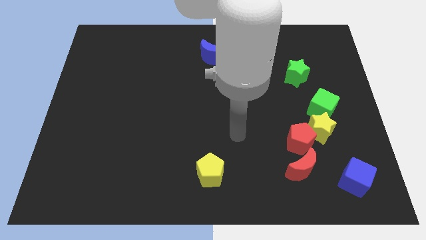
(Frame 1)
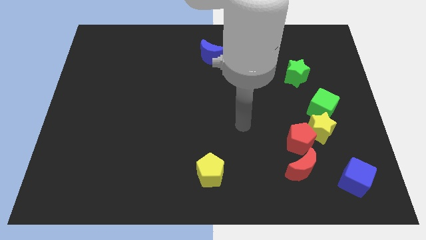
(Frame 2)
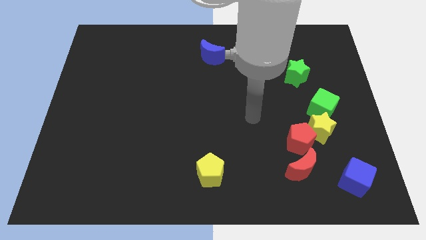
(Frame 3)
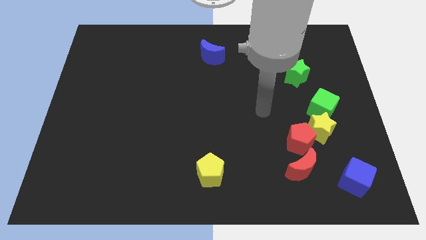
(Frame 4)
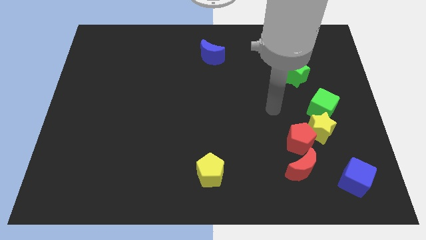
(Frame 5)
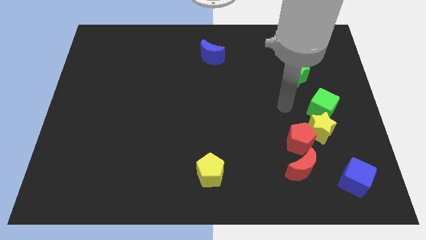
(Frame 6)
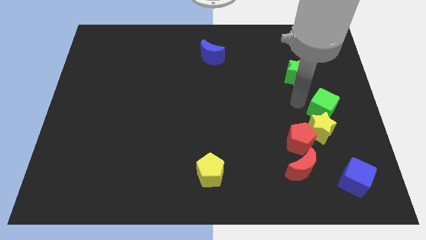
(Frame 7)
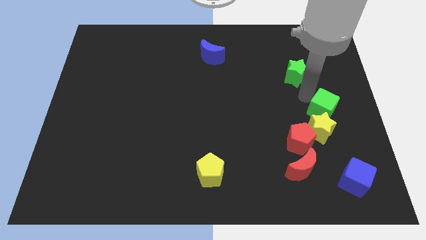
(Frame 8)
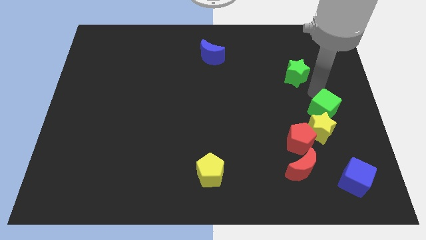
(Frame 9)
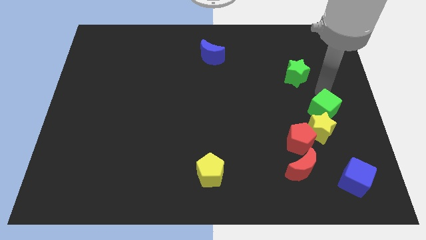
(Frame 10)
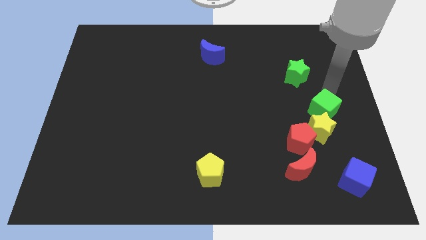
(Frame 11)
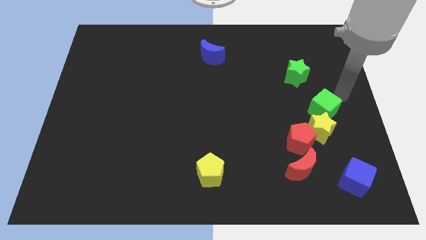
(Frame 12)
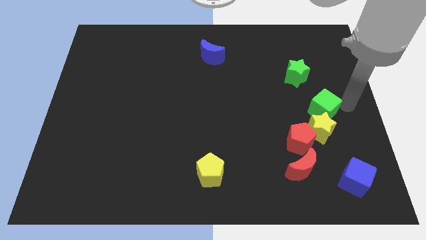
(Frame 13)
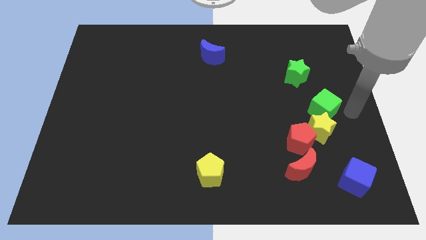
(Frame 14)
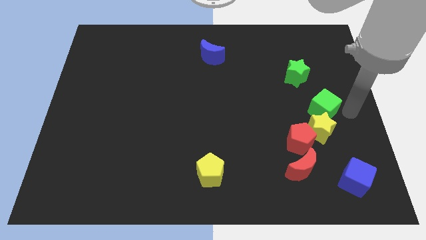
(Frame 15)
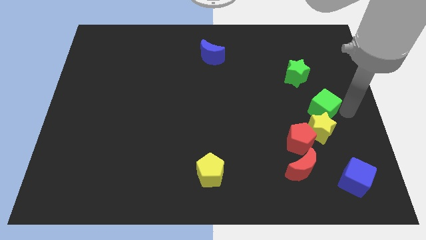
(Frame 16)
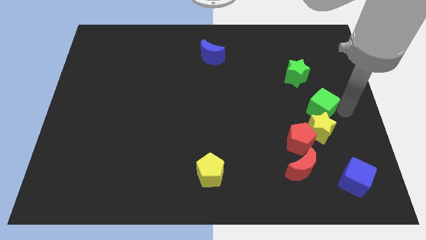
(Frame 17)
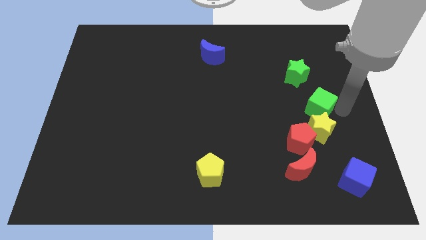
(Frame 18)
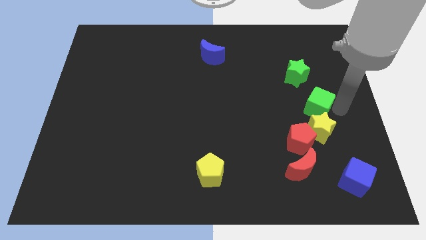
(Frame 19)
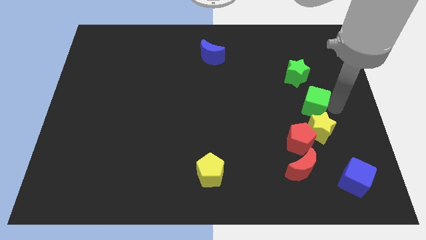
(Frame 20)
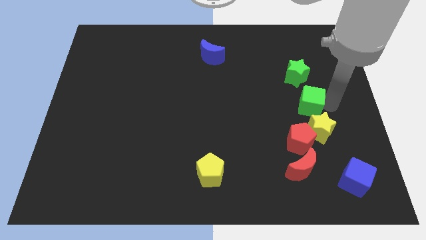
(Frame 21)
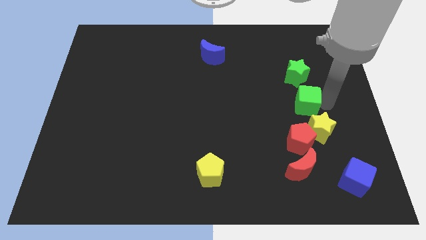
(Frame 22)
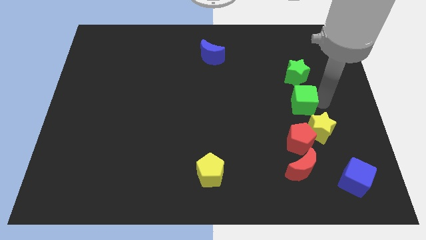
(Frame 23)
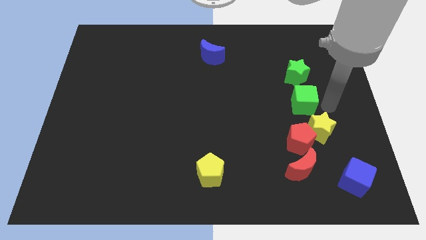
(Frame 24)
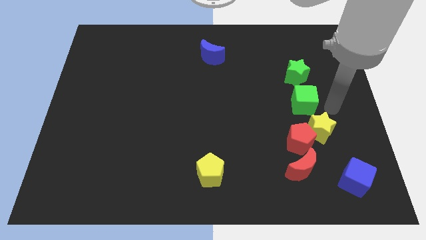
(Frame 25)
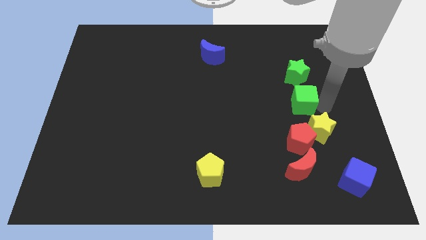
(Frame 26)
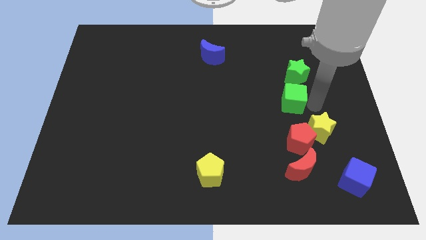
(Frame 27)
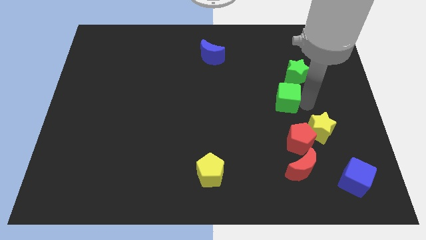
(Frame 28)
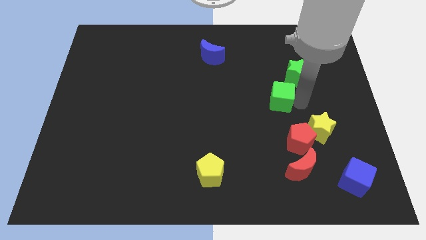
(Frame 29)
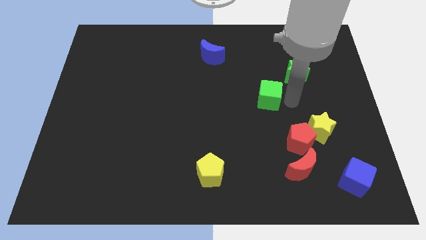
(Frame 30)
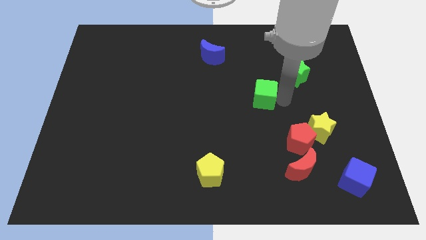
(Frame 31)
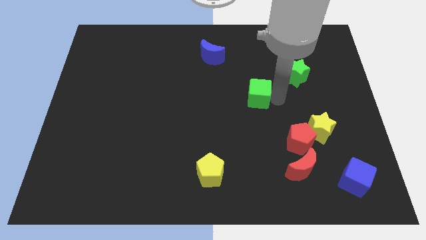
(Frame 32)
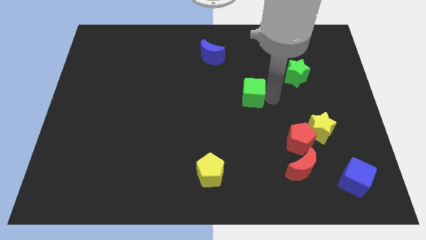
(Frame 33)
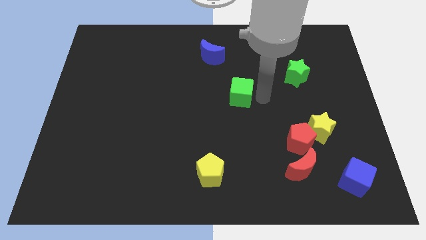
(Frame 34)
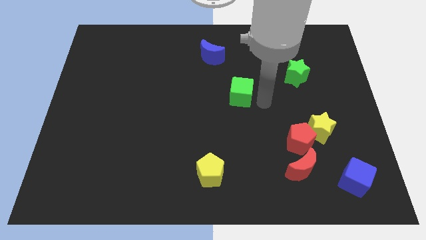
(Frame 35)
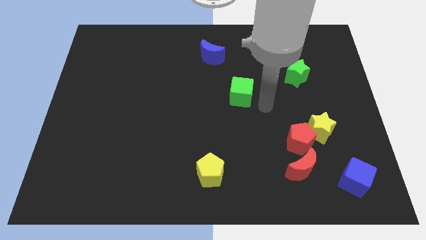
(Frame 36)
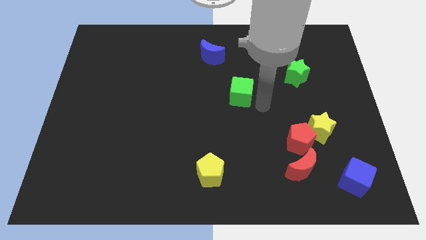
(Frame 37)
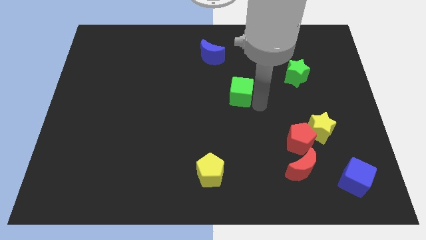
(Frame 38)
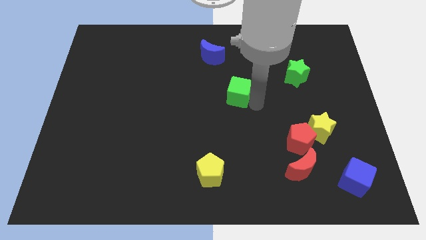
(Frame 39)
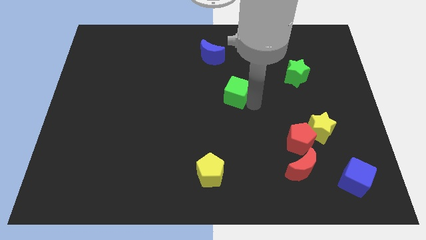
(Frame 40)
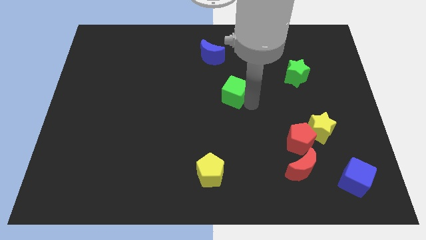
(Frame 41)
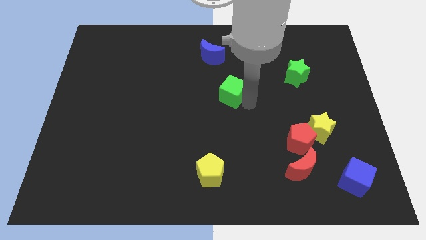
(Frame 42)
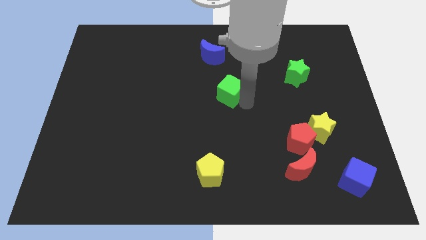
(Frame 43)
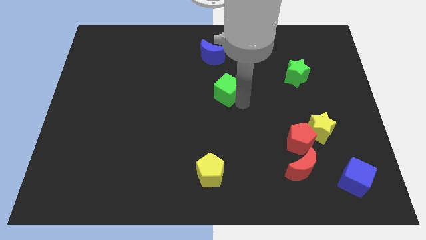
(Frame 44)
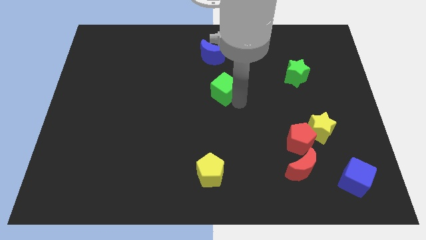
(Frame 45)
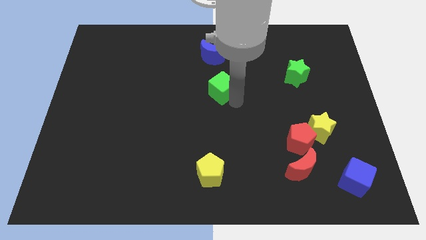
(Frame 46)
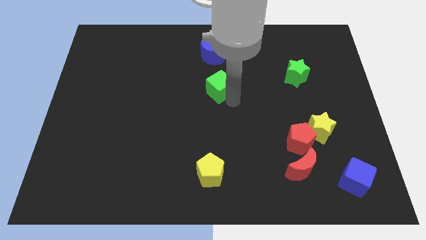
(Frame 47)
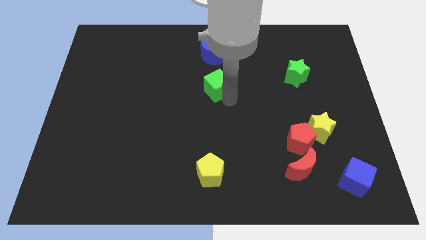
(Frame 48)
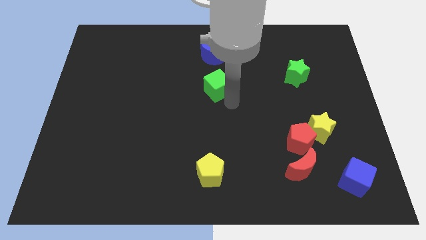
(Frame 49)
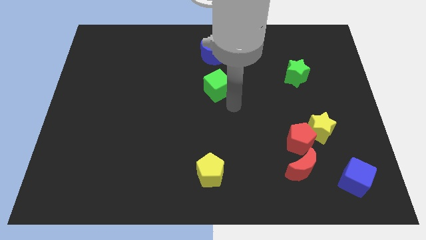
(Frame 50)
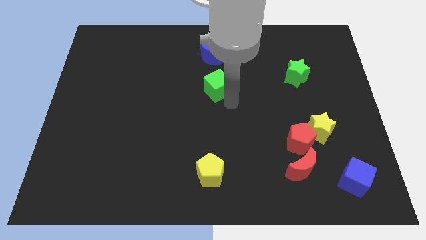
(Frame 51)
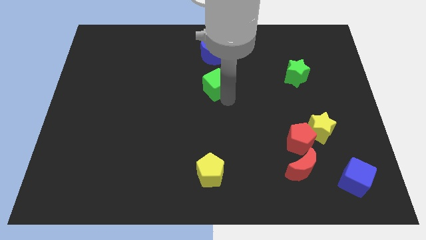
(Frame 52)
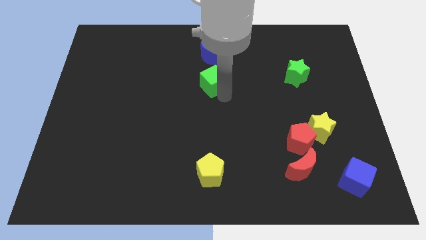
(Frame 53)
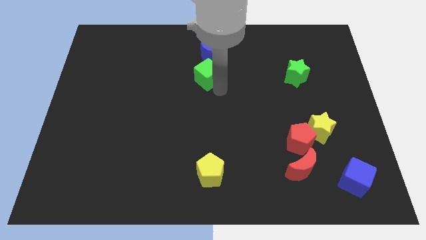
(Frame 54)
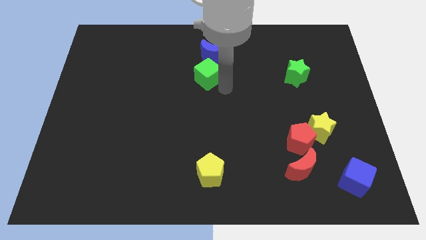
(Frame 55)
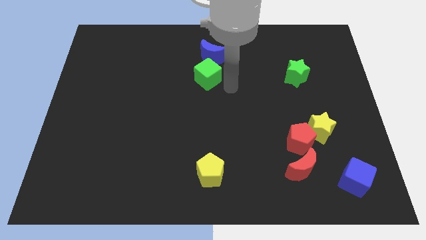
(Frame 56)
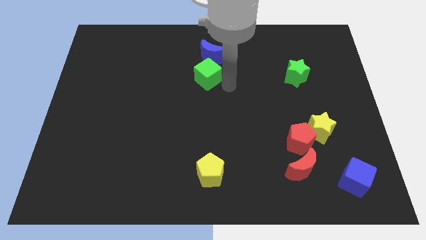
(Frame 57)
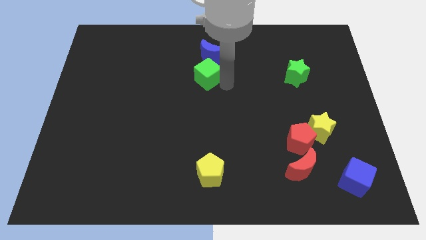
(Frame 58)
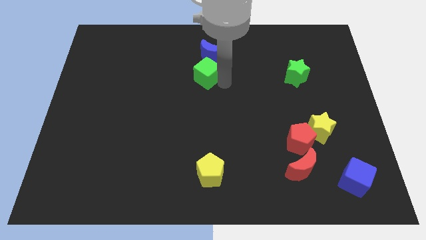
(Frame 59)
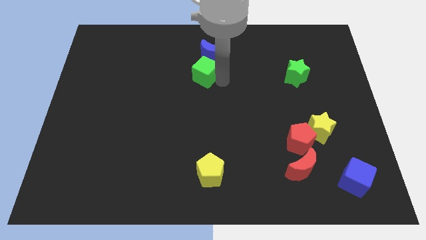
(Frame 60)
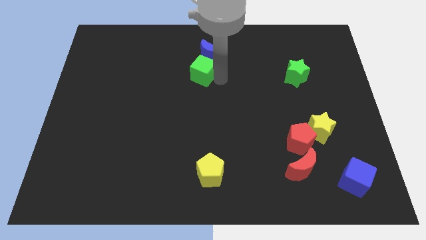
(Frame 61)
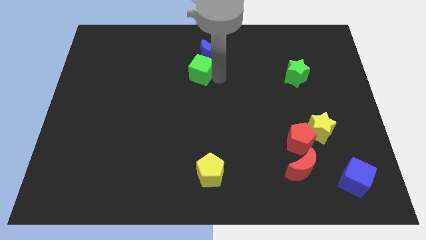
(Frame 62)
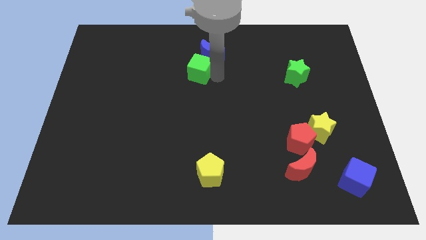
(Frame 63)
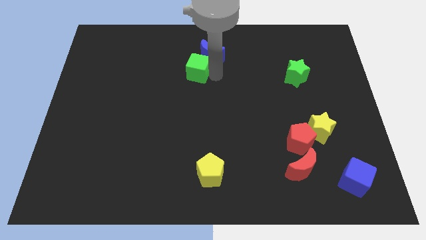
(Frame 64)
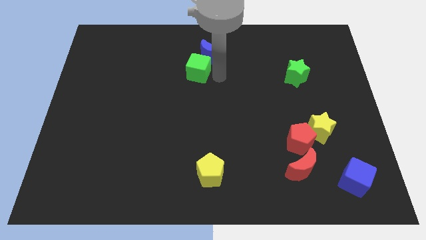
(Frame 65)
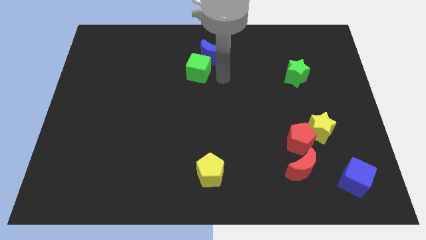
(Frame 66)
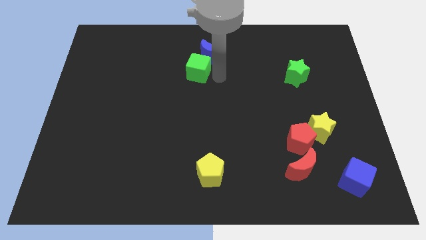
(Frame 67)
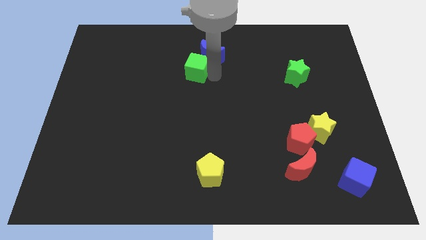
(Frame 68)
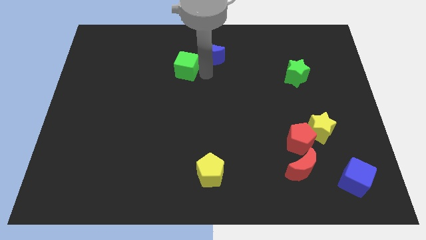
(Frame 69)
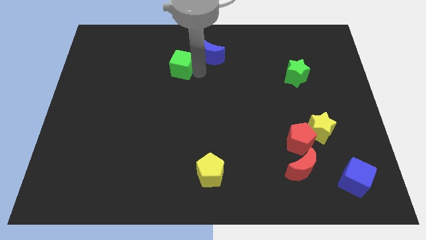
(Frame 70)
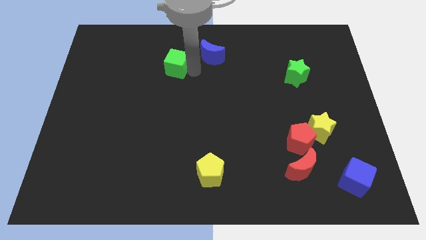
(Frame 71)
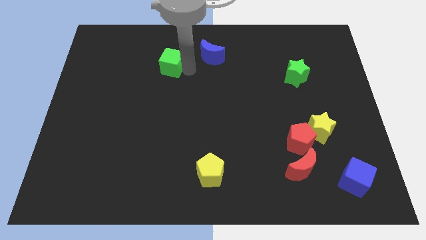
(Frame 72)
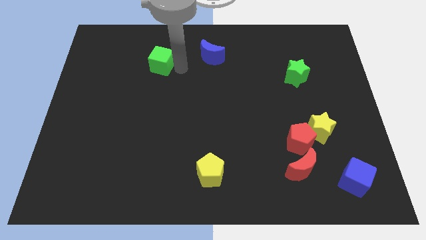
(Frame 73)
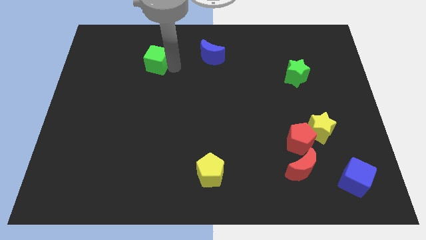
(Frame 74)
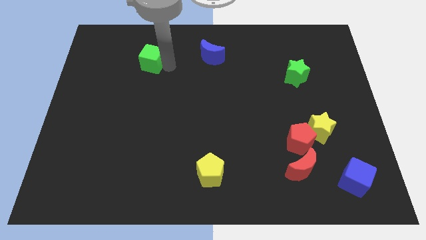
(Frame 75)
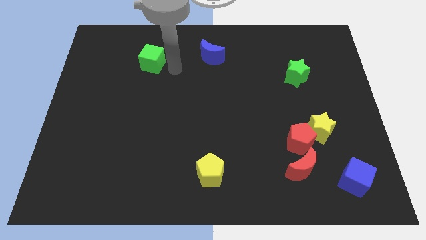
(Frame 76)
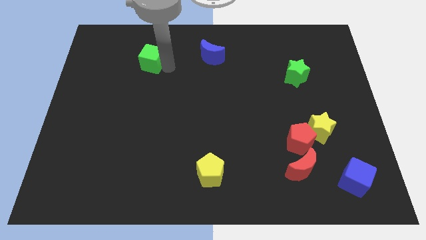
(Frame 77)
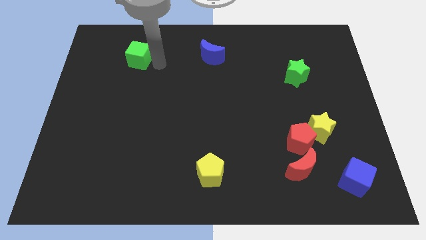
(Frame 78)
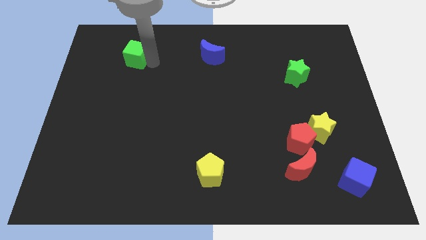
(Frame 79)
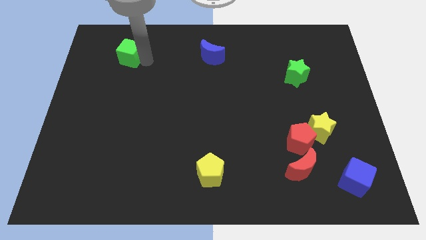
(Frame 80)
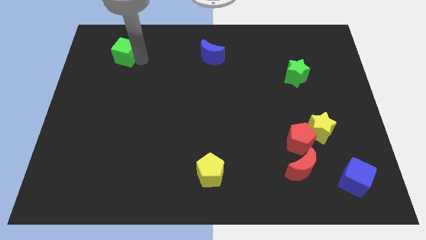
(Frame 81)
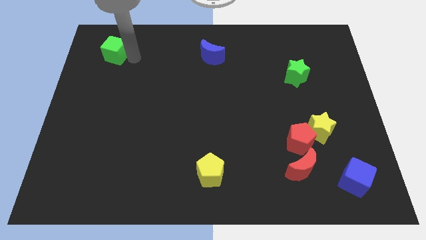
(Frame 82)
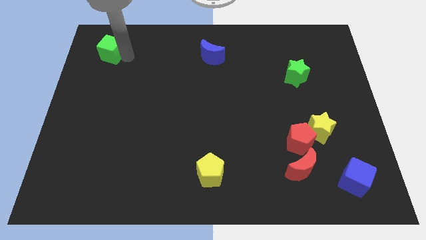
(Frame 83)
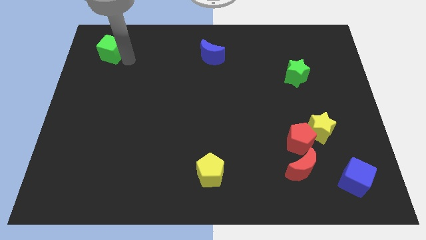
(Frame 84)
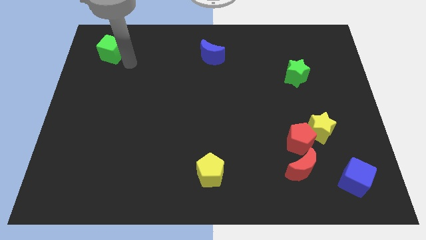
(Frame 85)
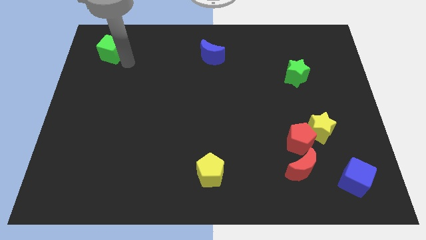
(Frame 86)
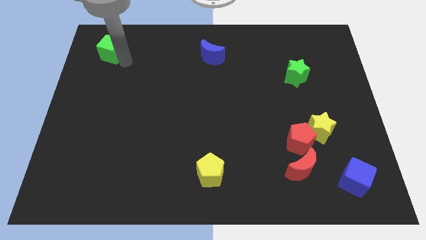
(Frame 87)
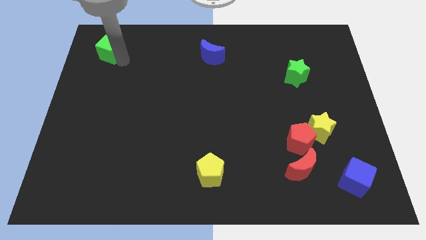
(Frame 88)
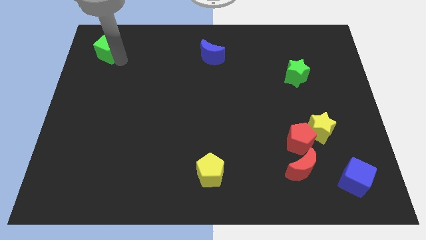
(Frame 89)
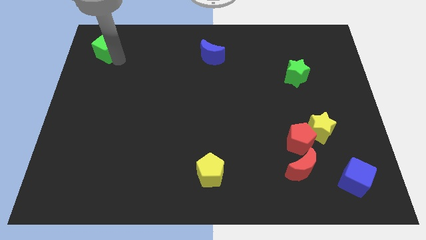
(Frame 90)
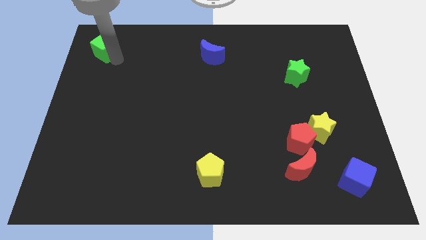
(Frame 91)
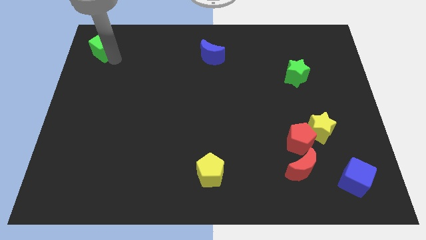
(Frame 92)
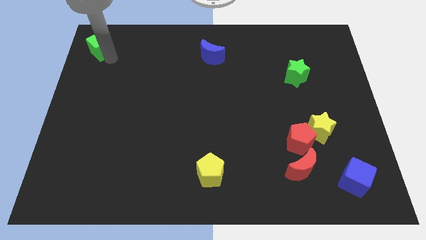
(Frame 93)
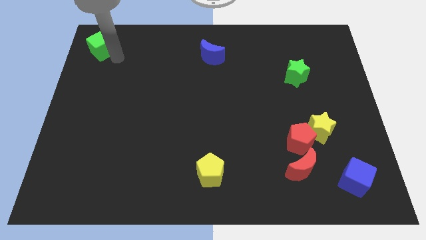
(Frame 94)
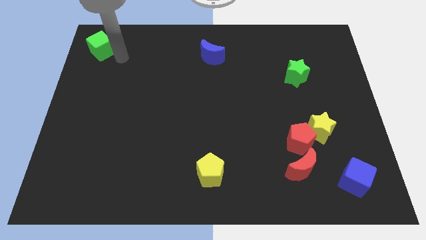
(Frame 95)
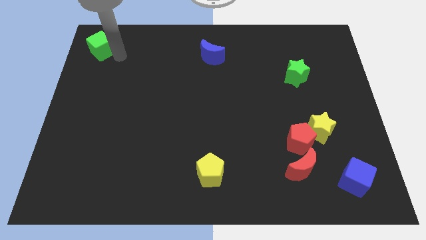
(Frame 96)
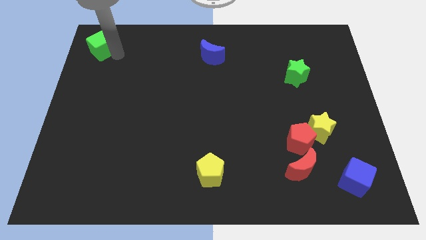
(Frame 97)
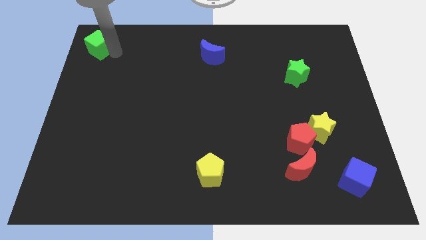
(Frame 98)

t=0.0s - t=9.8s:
move the green cube to the top left of the board
